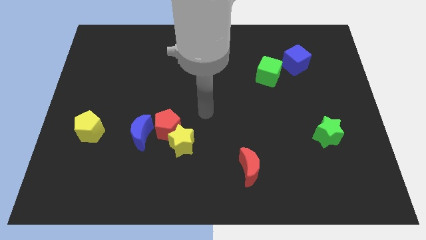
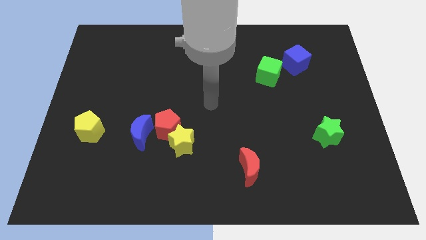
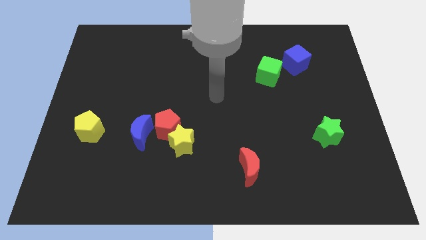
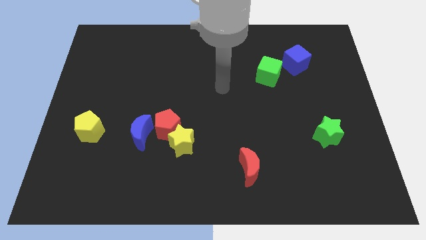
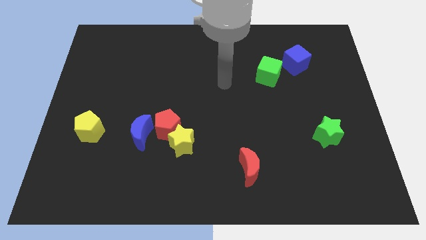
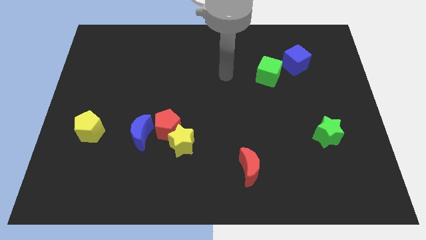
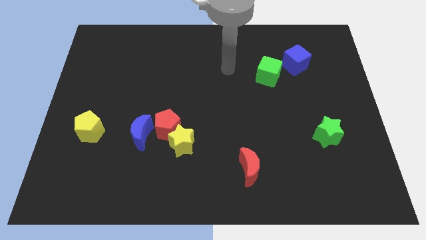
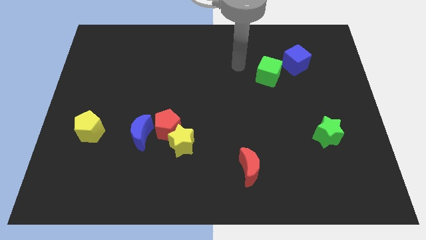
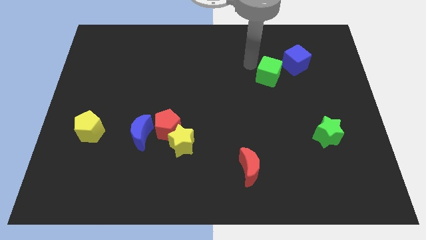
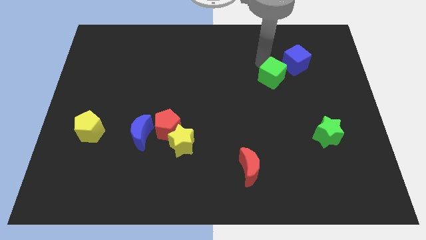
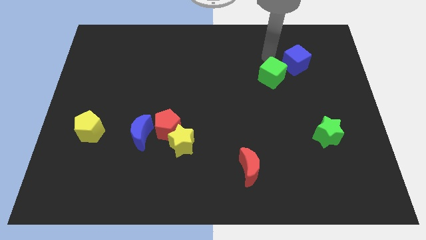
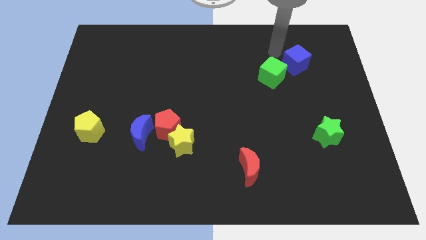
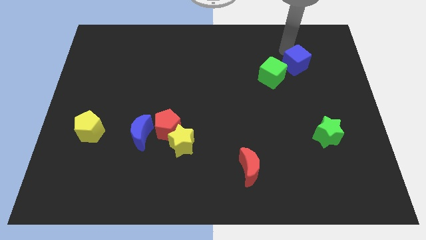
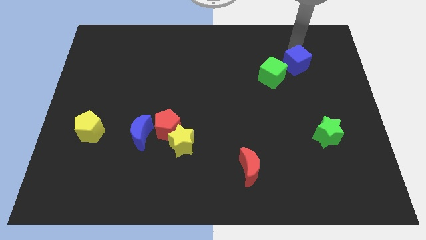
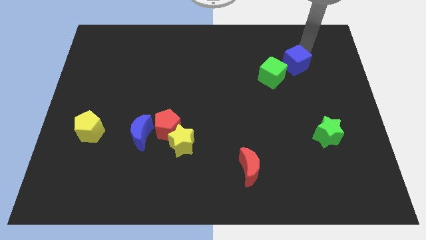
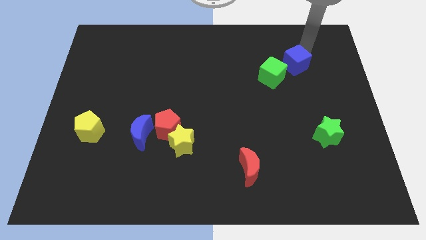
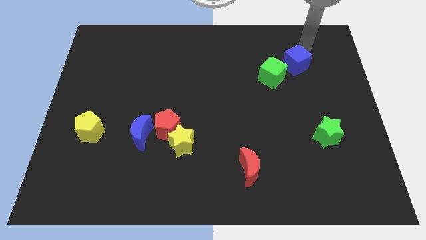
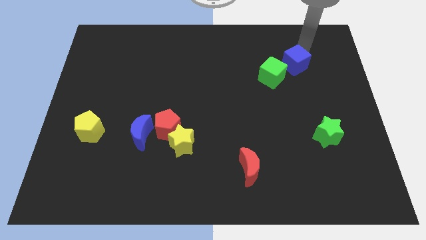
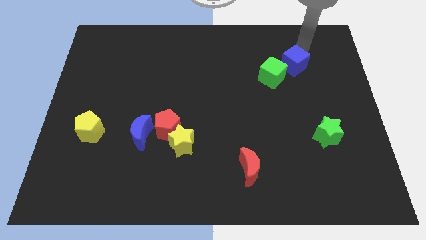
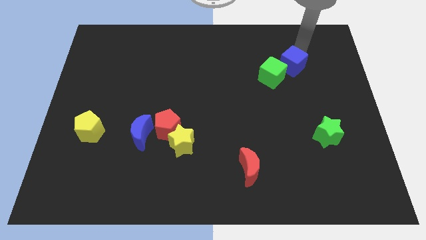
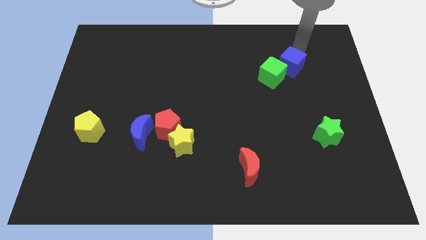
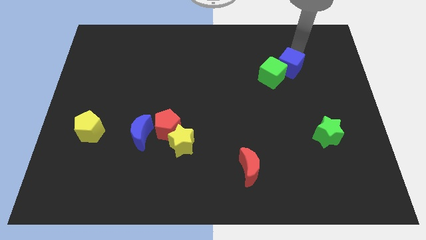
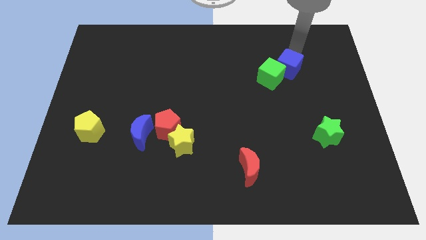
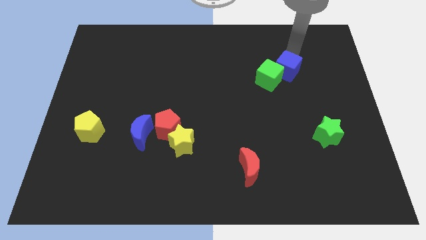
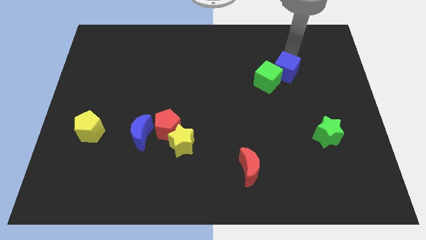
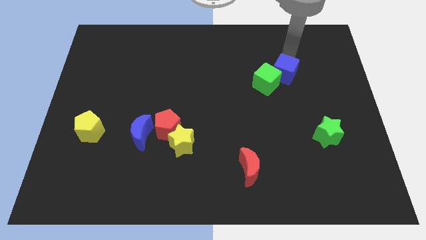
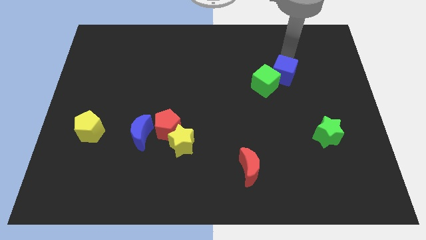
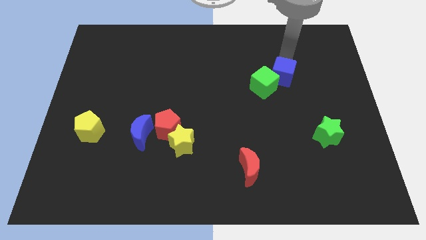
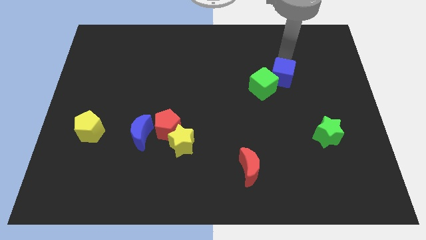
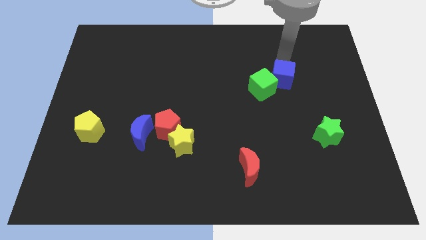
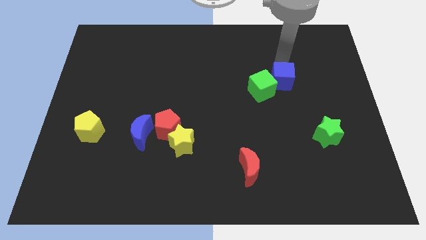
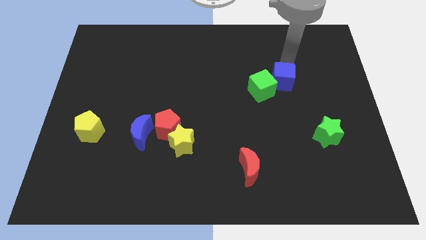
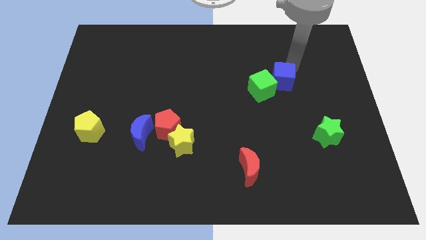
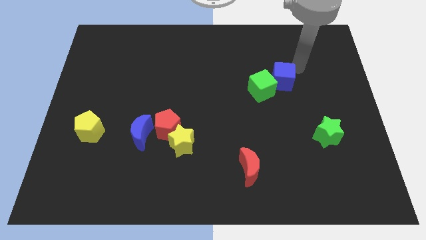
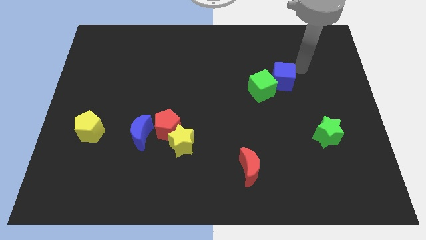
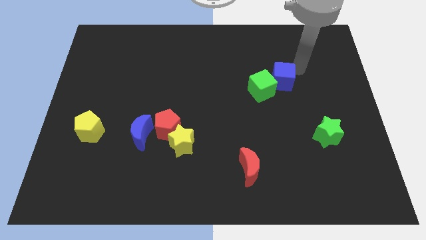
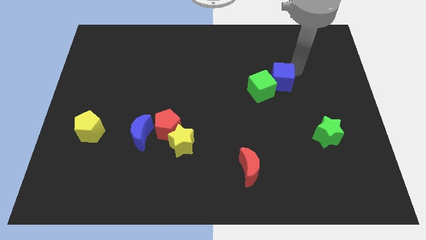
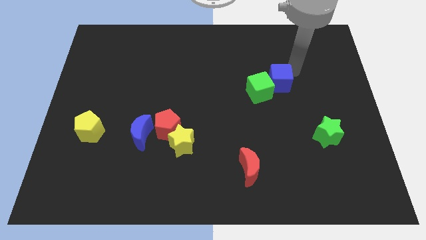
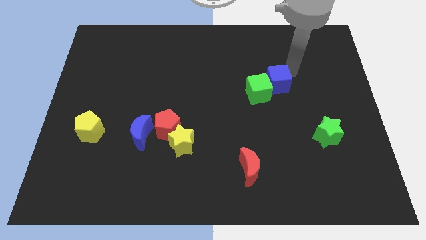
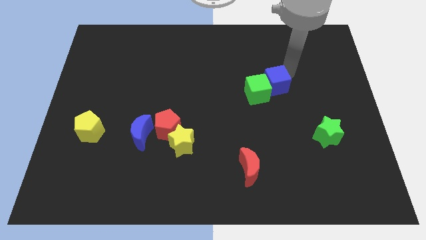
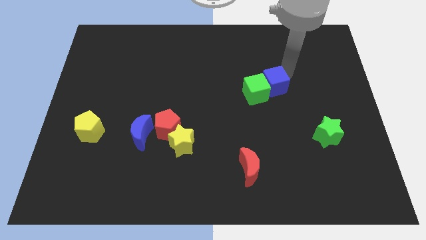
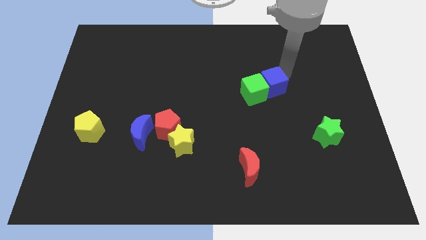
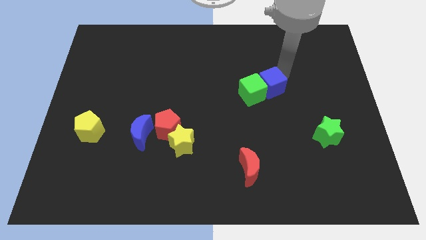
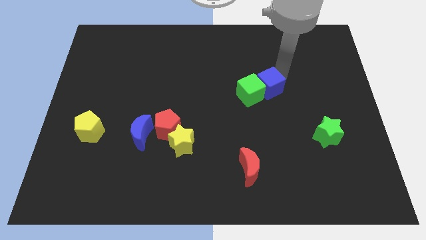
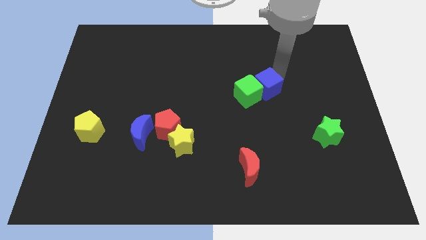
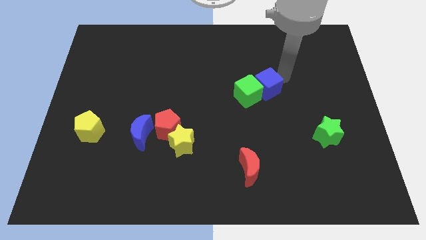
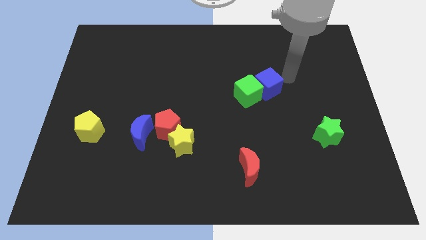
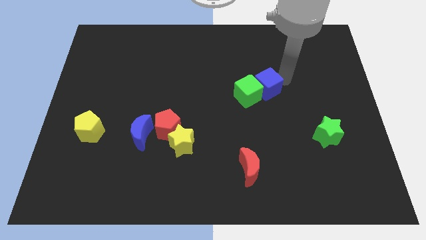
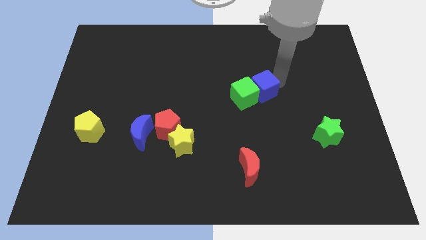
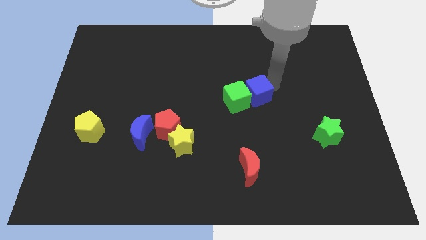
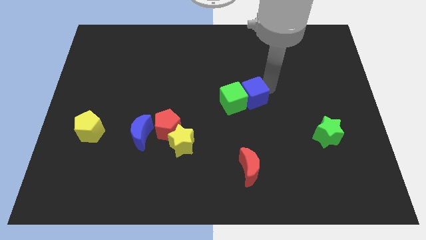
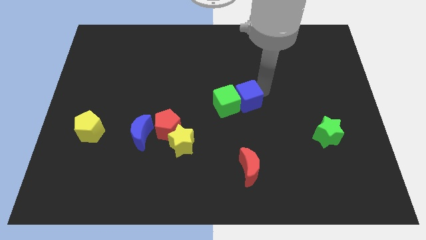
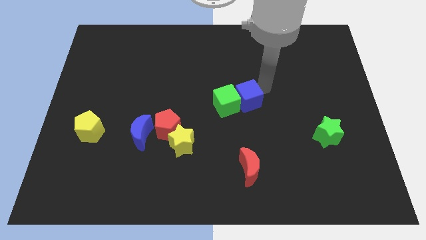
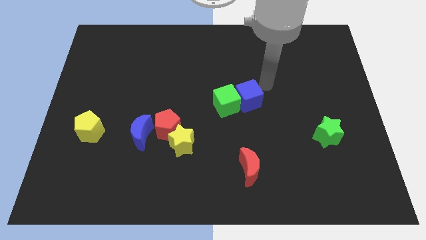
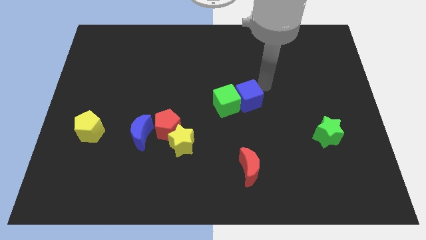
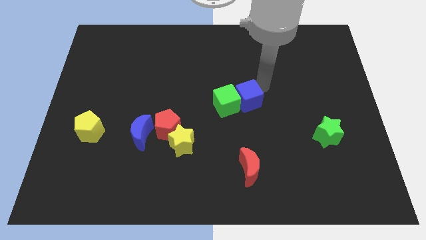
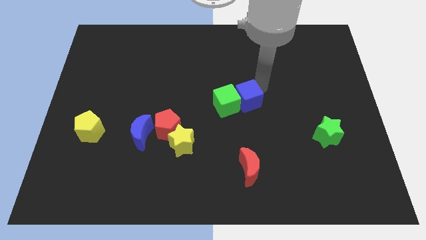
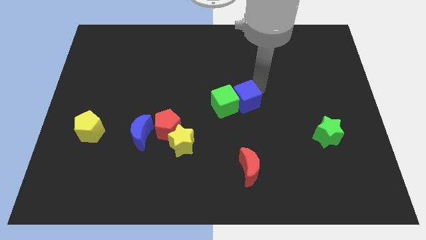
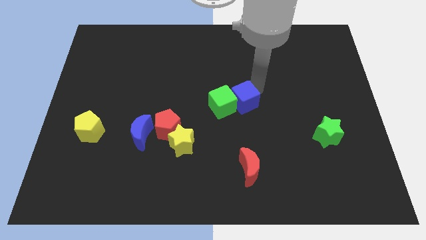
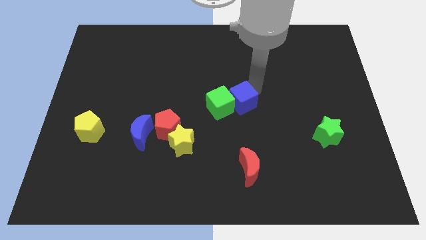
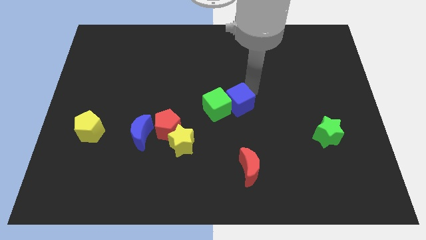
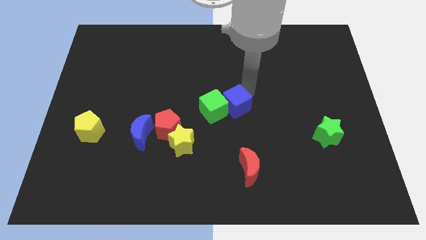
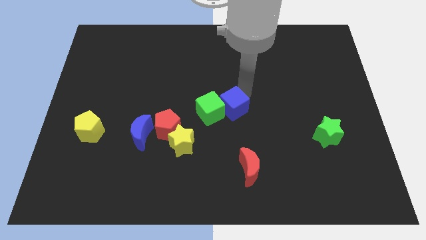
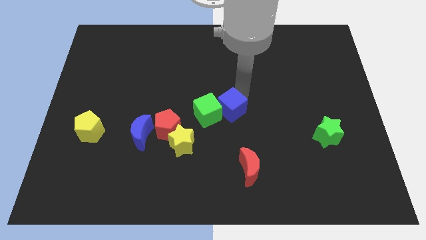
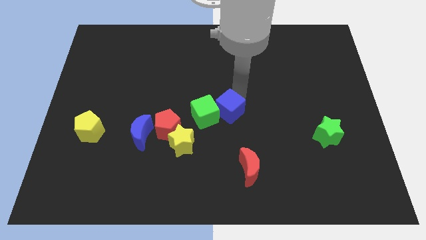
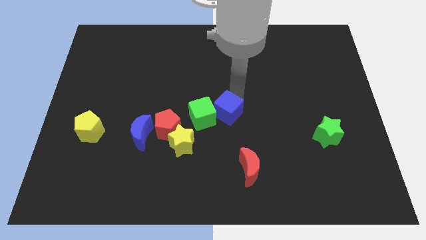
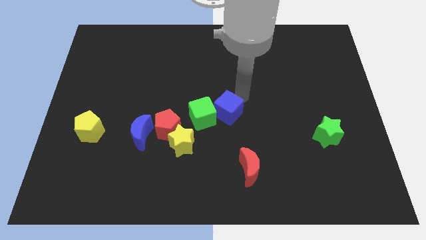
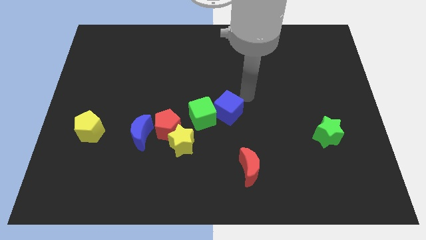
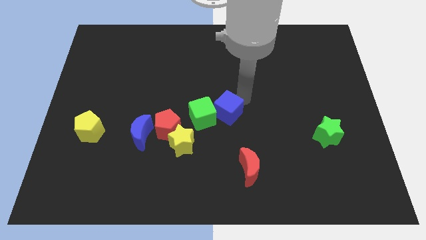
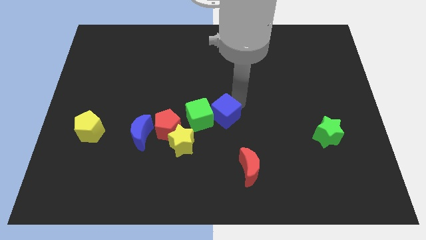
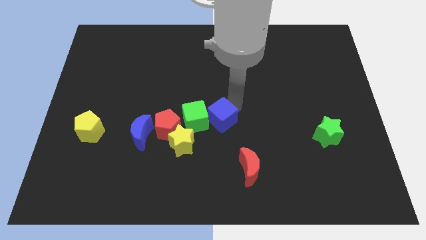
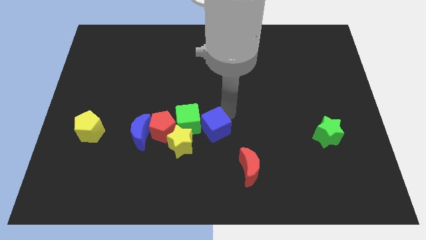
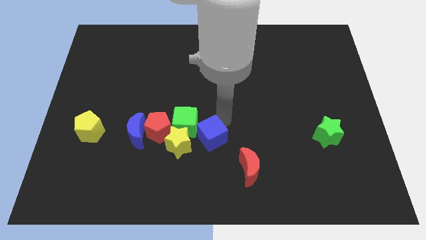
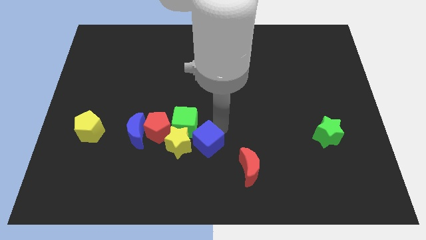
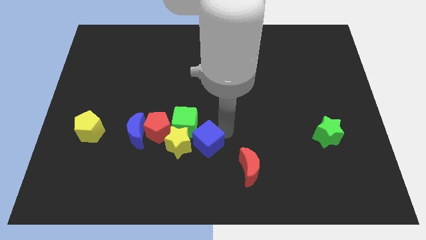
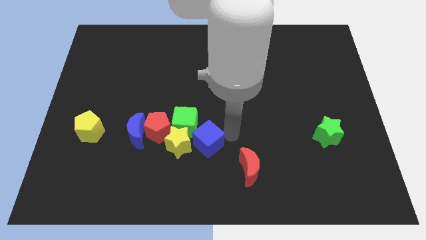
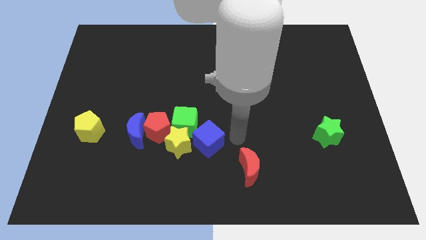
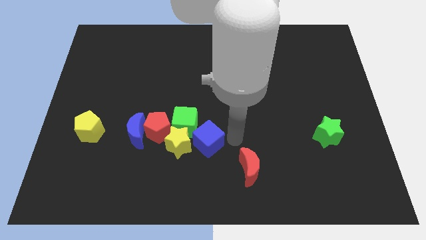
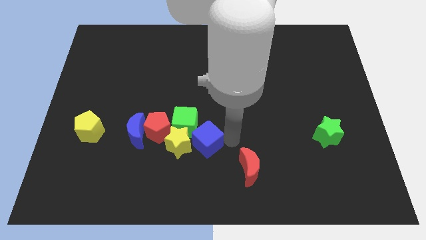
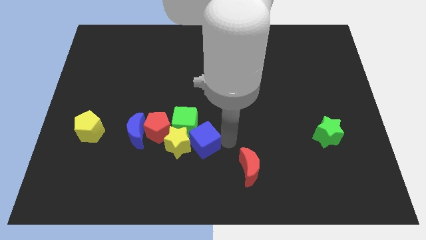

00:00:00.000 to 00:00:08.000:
slide the blue cube close to the yellow star
